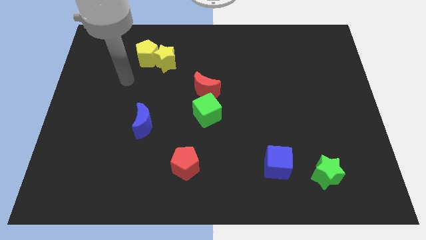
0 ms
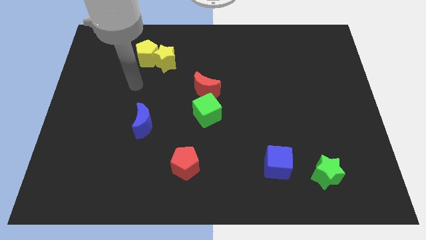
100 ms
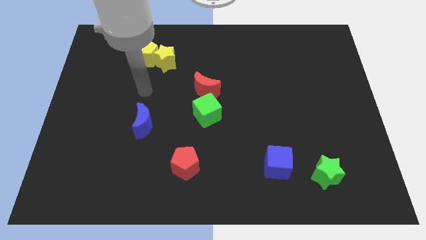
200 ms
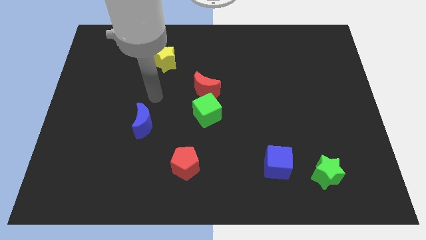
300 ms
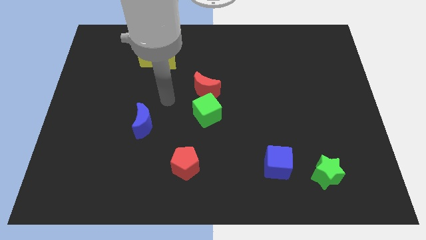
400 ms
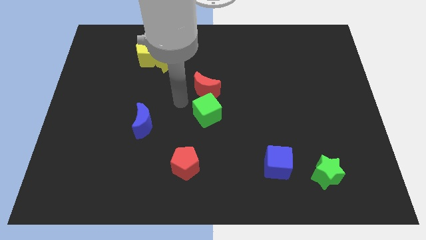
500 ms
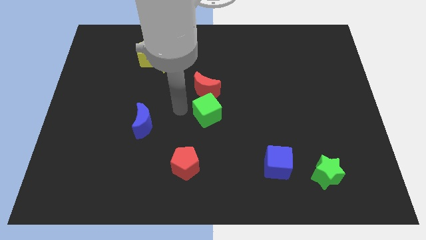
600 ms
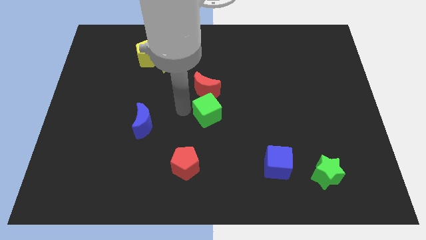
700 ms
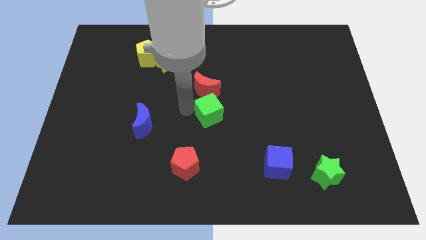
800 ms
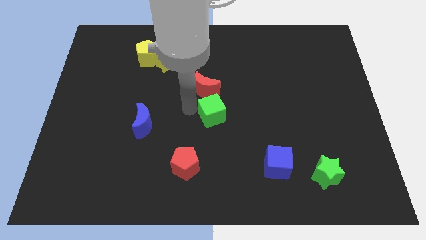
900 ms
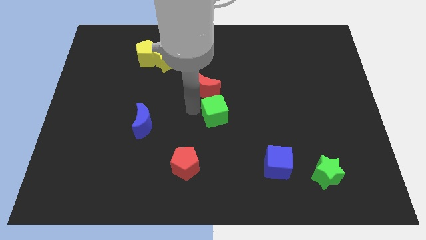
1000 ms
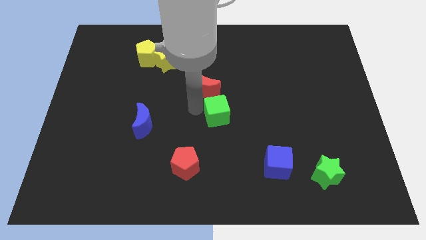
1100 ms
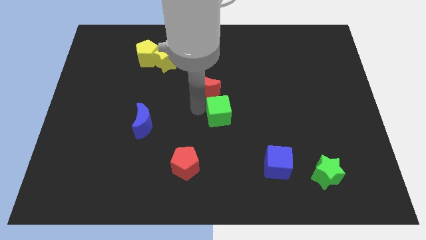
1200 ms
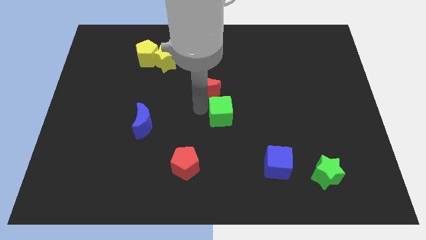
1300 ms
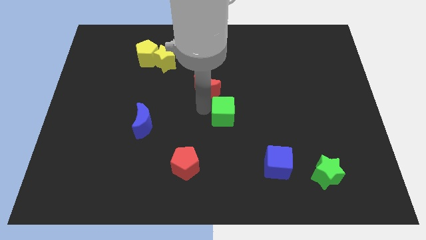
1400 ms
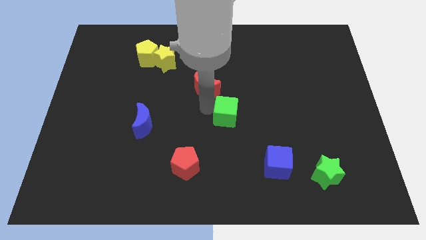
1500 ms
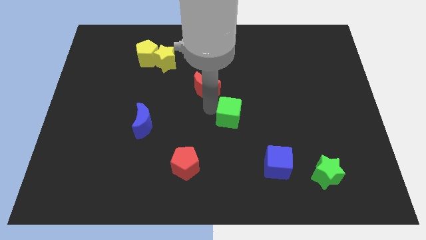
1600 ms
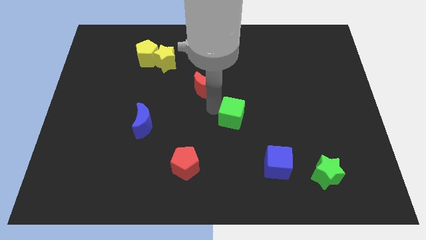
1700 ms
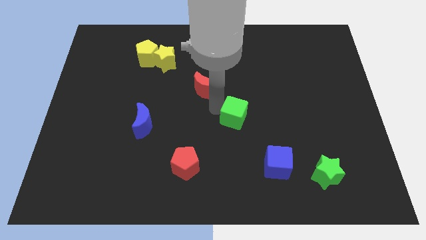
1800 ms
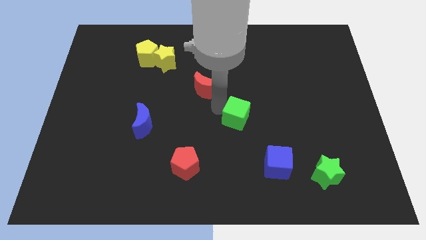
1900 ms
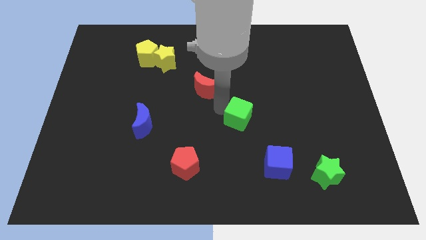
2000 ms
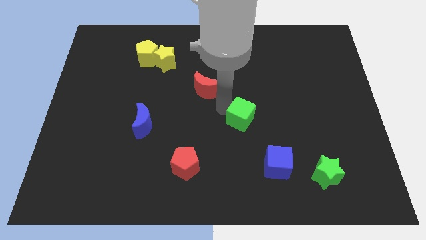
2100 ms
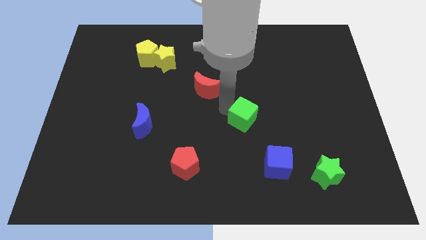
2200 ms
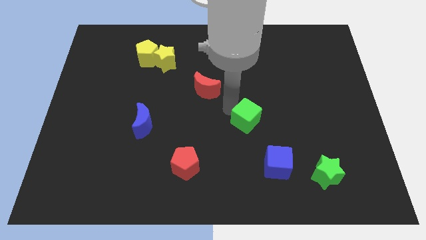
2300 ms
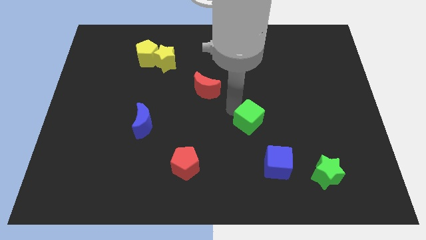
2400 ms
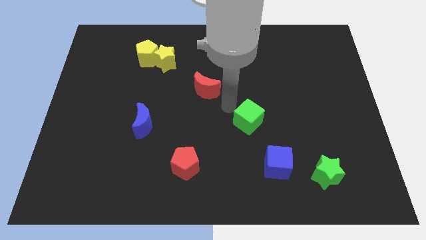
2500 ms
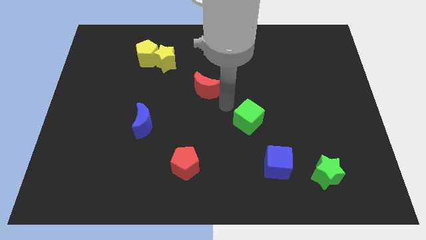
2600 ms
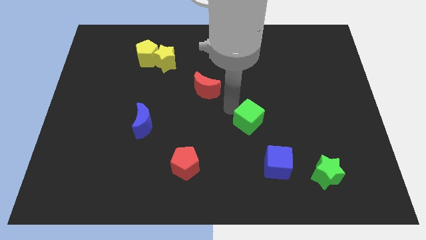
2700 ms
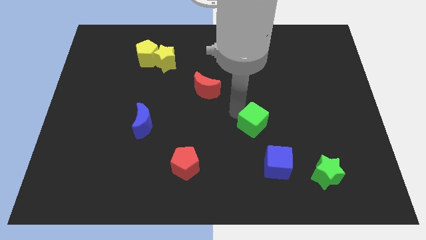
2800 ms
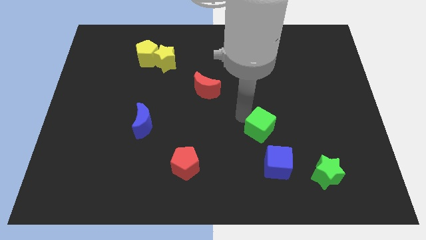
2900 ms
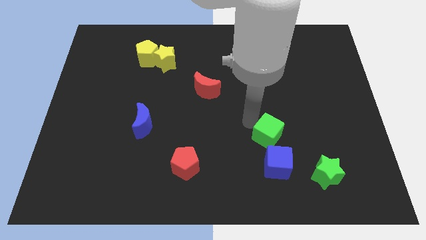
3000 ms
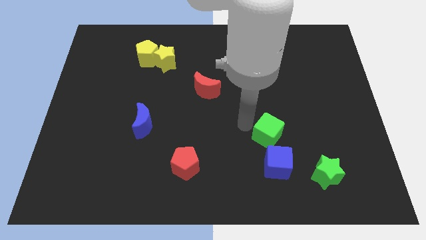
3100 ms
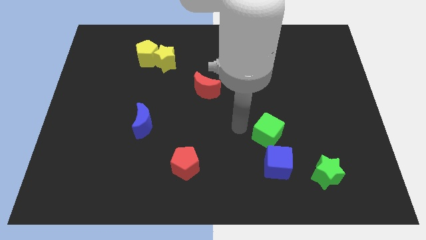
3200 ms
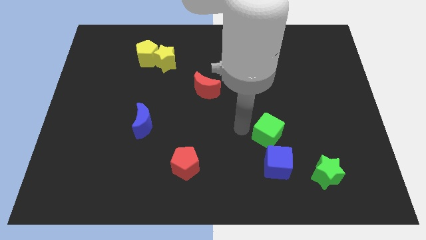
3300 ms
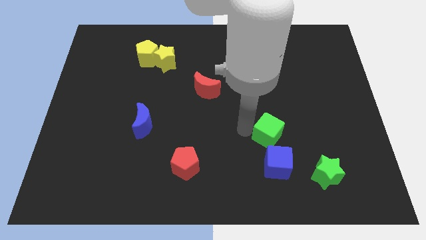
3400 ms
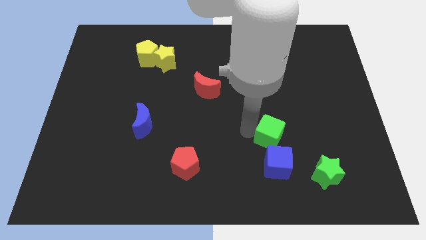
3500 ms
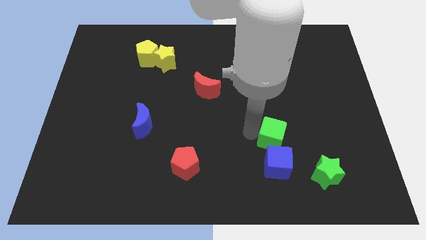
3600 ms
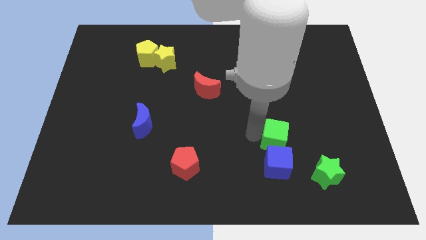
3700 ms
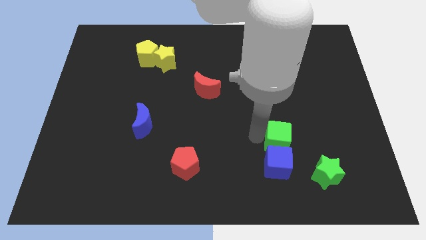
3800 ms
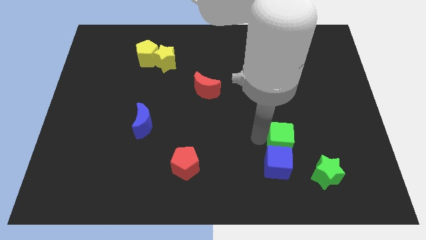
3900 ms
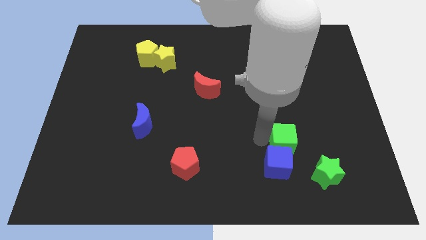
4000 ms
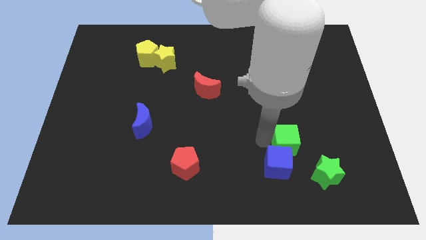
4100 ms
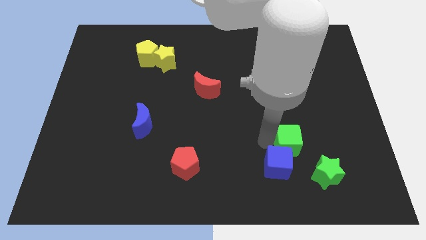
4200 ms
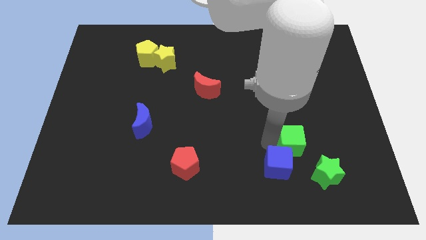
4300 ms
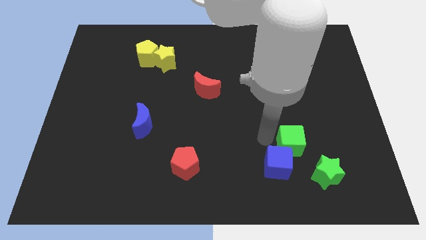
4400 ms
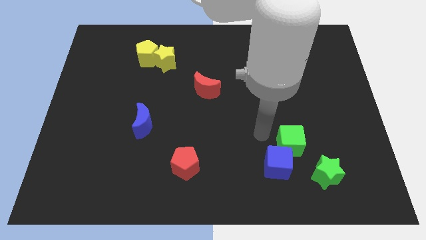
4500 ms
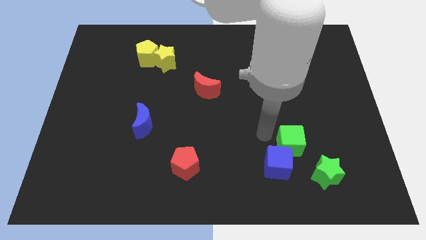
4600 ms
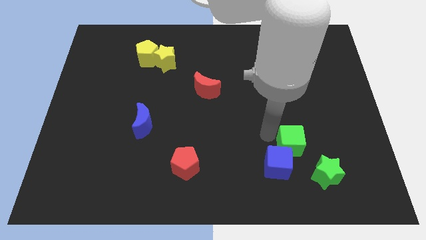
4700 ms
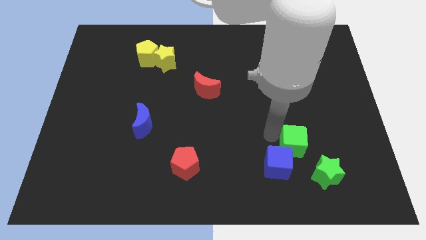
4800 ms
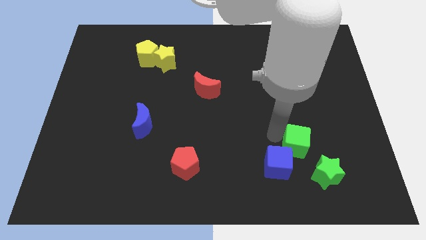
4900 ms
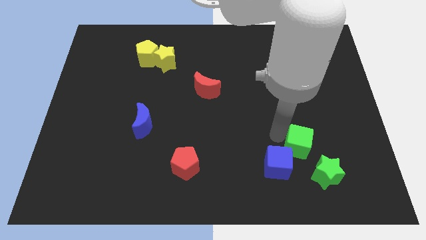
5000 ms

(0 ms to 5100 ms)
slide the green cube to the right of the blue cube

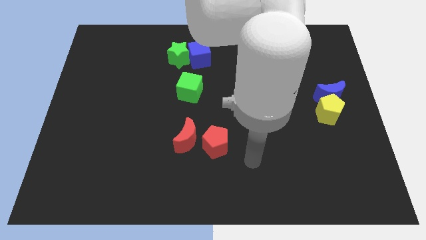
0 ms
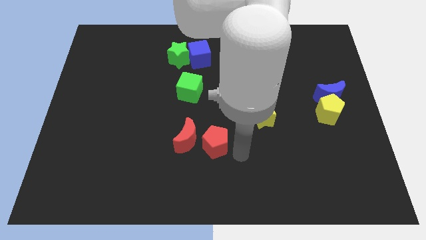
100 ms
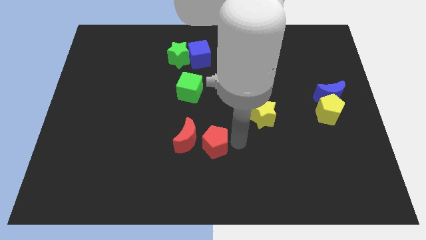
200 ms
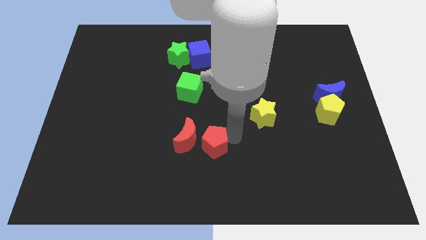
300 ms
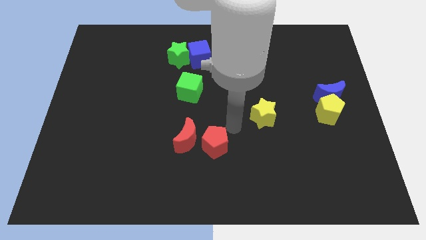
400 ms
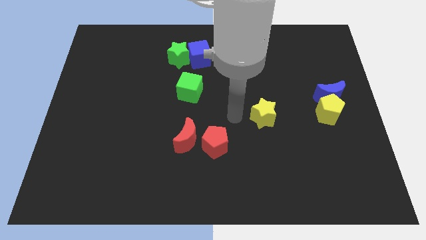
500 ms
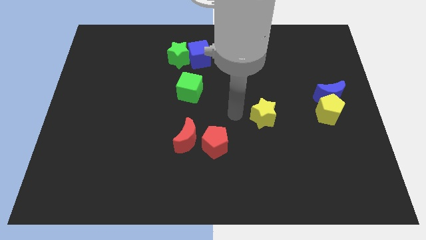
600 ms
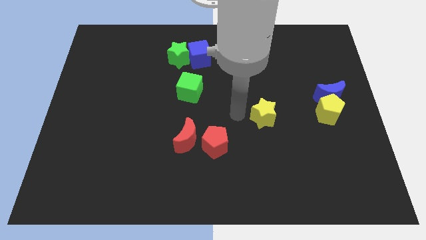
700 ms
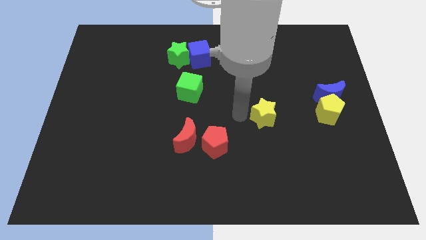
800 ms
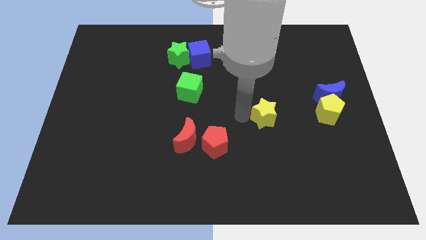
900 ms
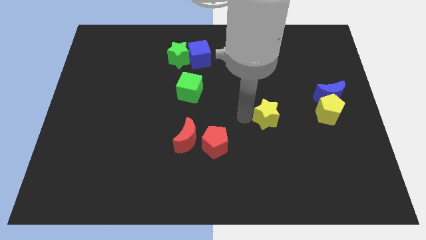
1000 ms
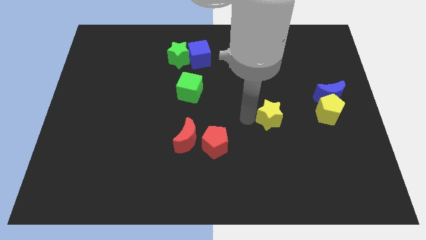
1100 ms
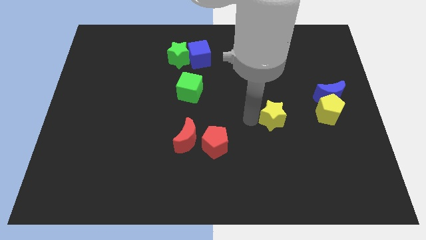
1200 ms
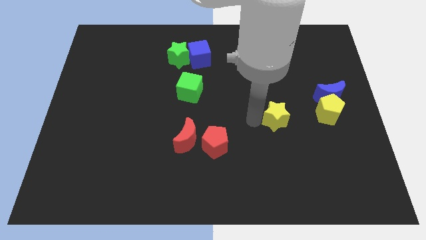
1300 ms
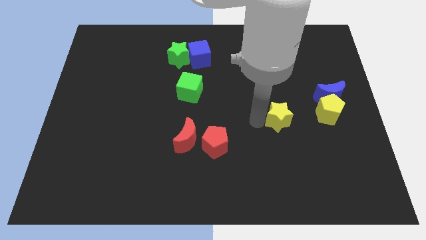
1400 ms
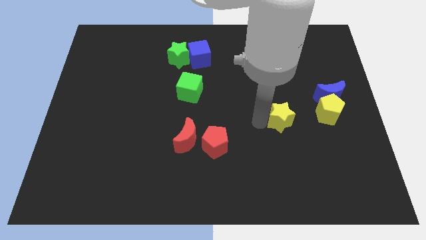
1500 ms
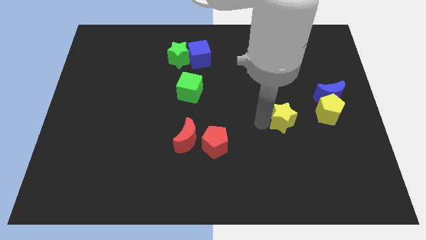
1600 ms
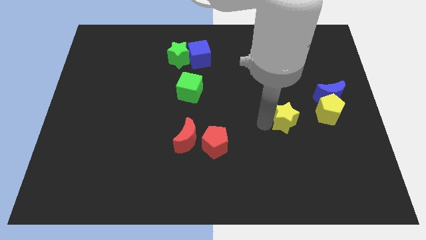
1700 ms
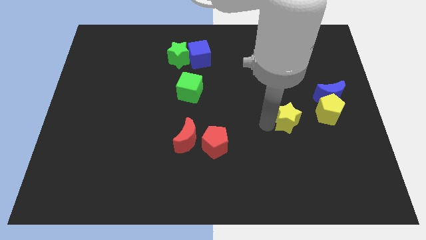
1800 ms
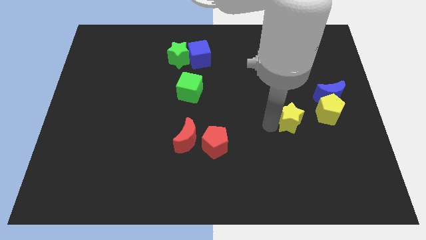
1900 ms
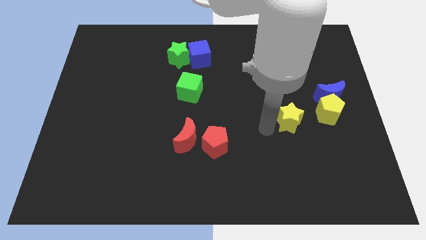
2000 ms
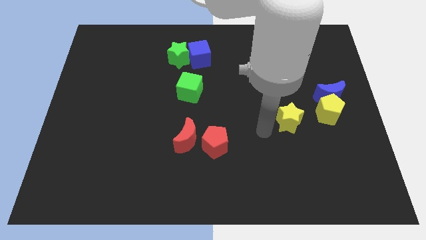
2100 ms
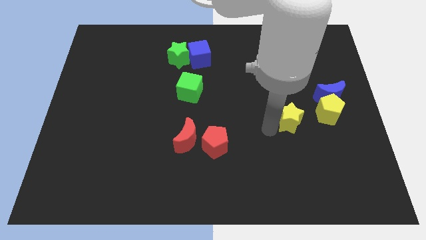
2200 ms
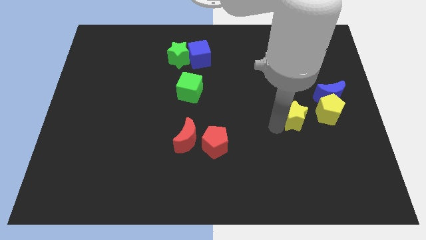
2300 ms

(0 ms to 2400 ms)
slide the yellow star to the bottom left side of the blue moon

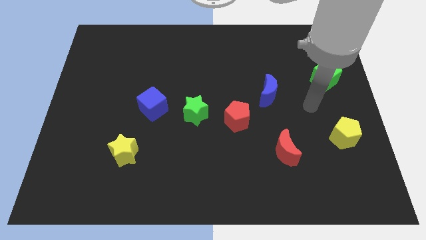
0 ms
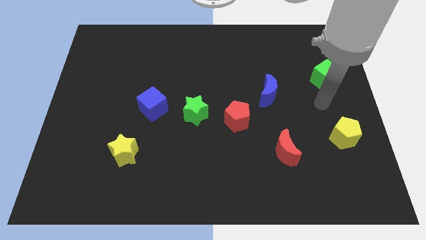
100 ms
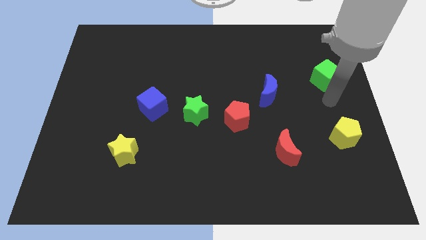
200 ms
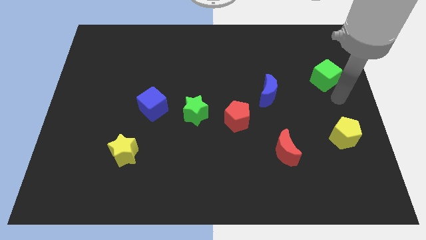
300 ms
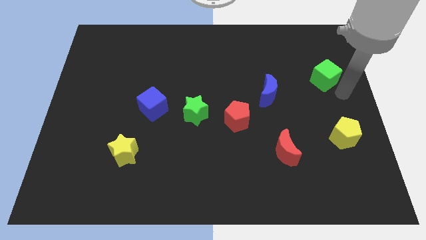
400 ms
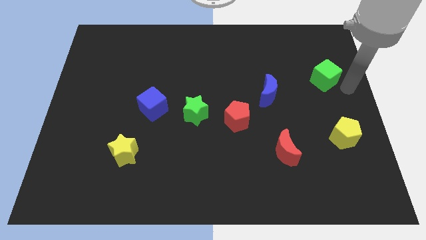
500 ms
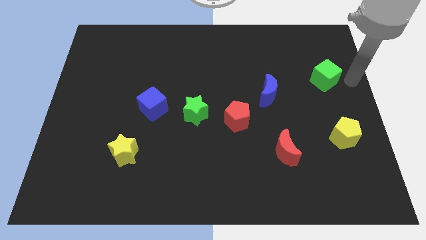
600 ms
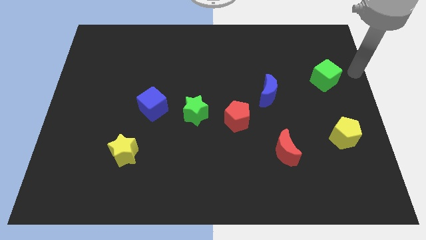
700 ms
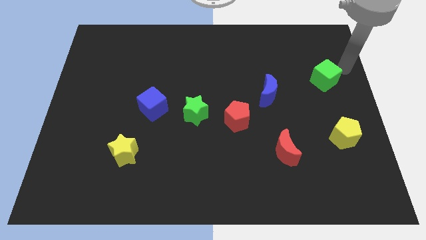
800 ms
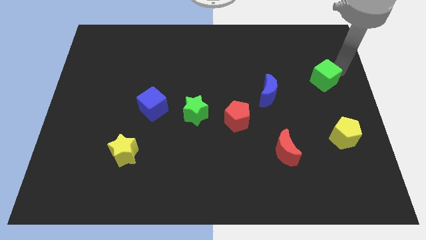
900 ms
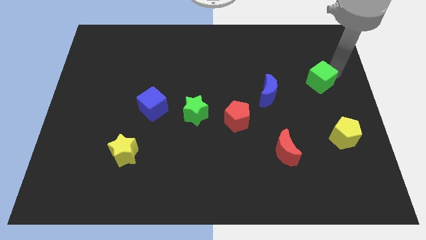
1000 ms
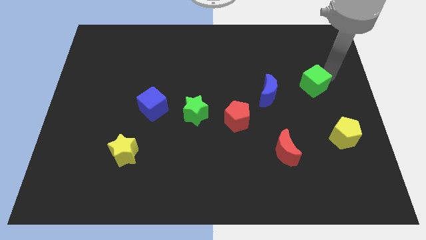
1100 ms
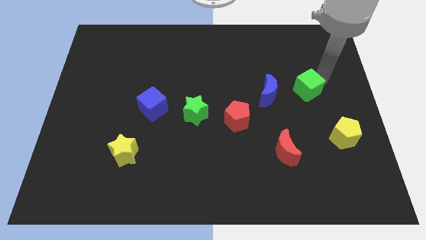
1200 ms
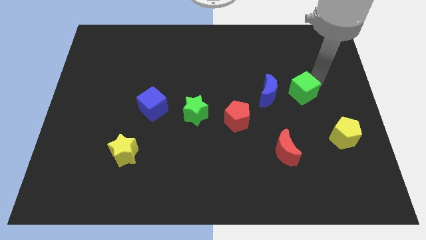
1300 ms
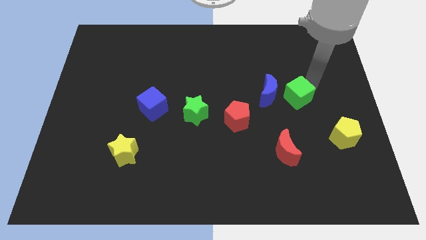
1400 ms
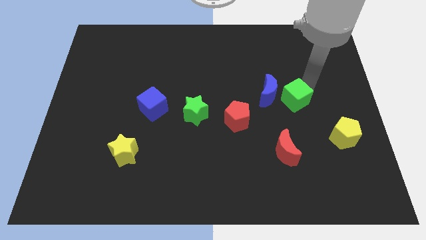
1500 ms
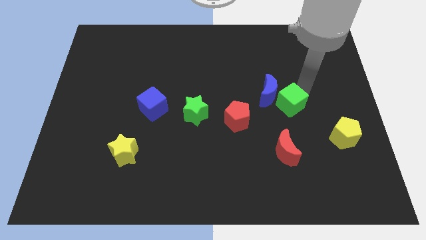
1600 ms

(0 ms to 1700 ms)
move the green cube to the top of the red moon
